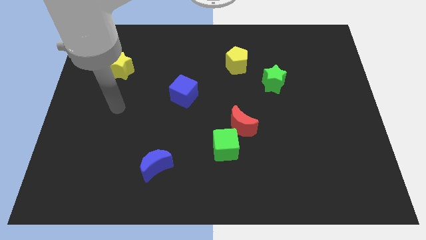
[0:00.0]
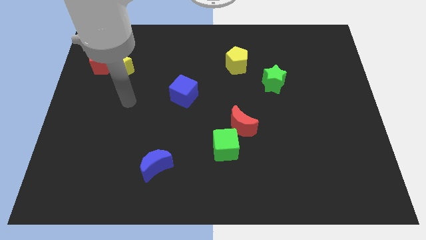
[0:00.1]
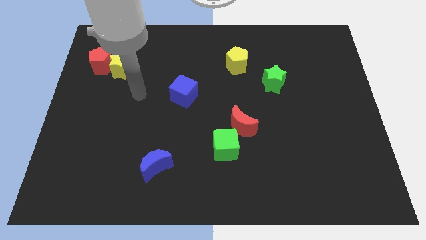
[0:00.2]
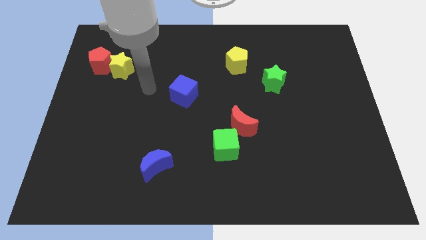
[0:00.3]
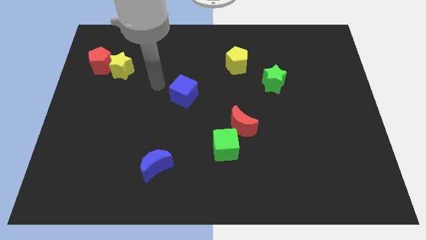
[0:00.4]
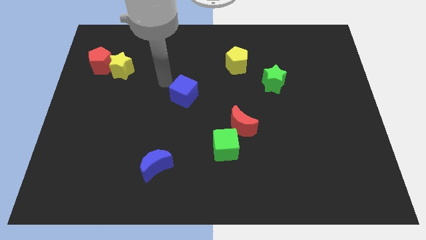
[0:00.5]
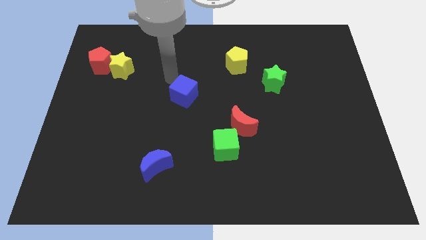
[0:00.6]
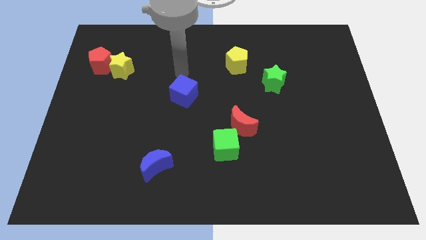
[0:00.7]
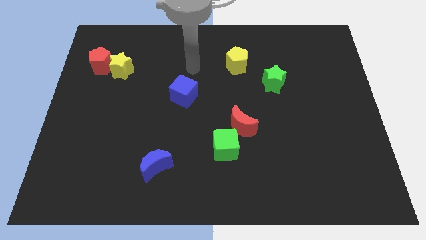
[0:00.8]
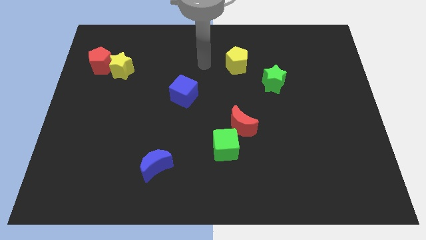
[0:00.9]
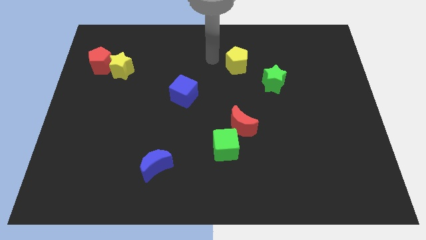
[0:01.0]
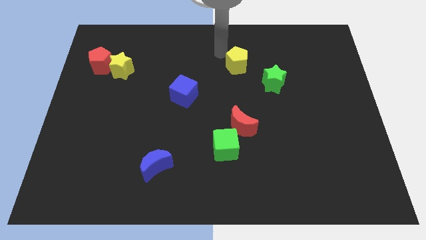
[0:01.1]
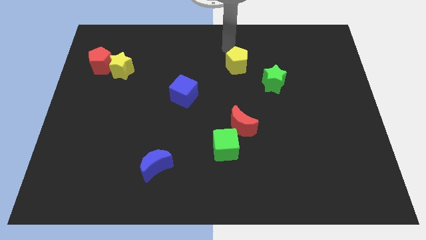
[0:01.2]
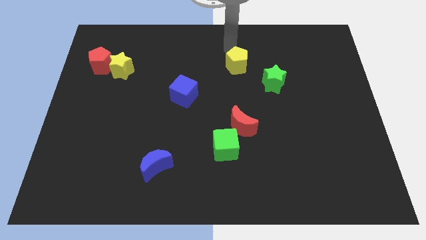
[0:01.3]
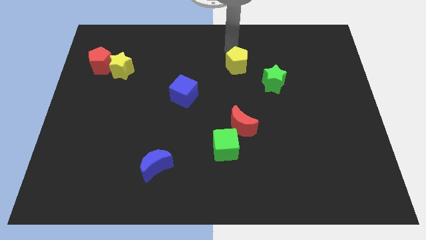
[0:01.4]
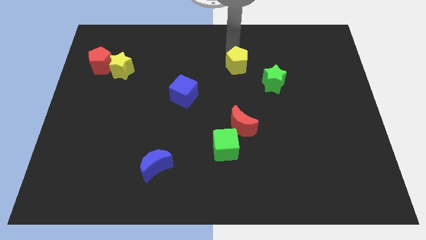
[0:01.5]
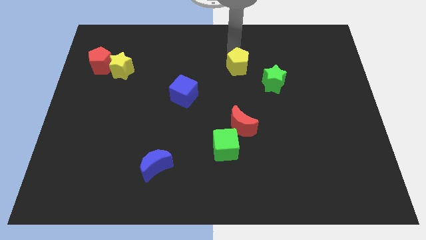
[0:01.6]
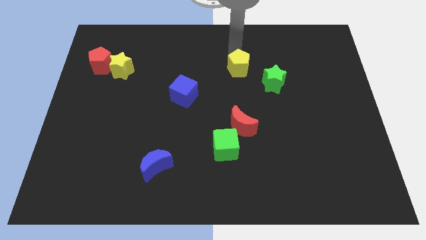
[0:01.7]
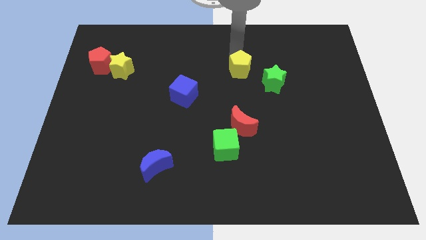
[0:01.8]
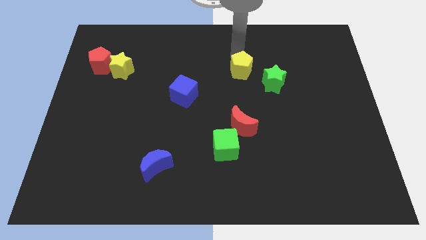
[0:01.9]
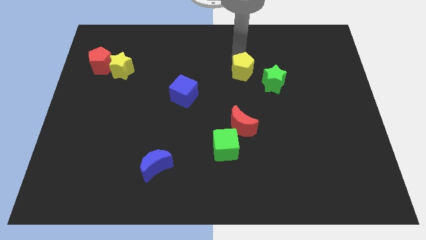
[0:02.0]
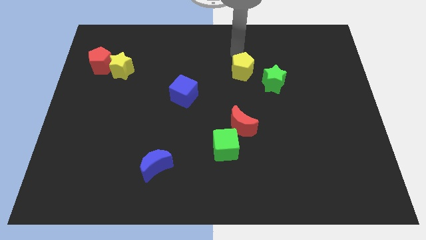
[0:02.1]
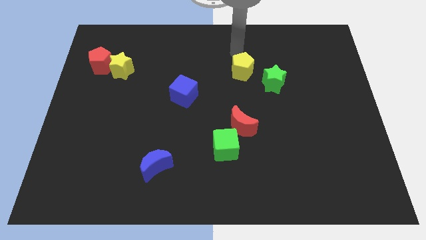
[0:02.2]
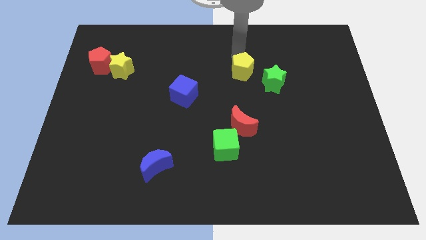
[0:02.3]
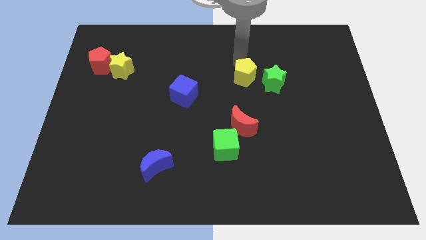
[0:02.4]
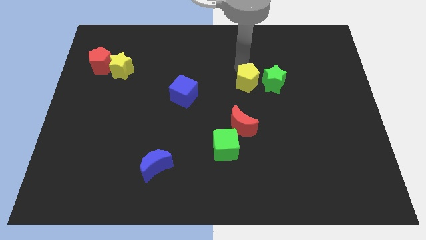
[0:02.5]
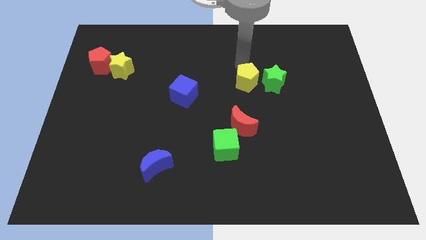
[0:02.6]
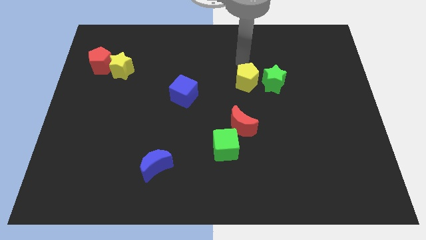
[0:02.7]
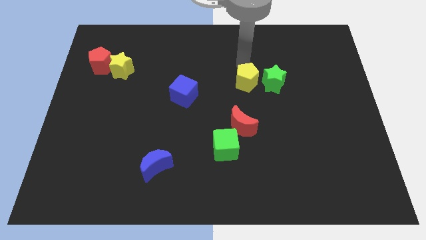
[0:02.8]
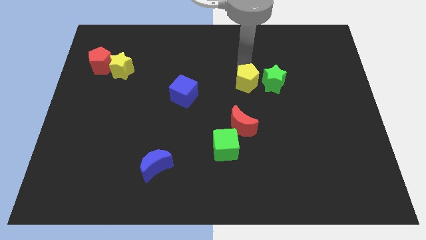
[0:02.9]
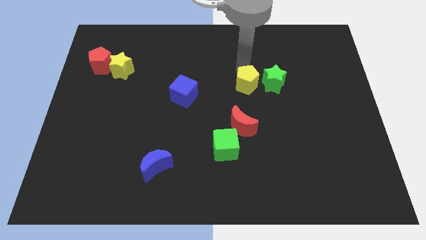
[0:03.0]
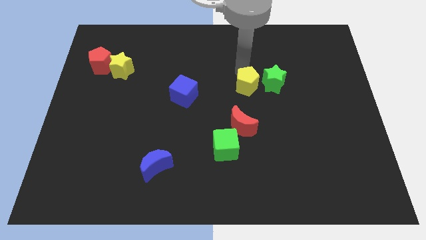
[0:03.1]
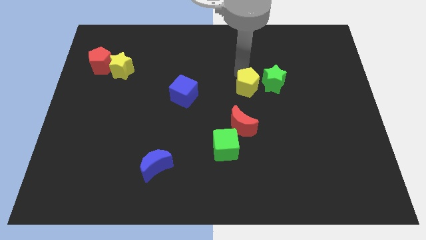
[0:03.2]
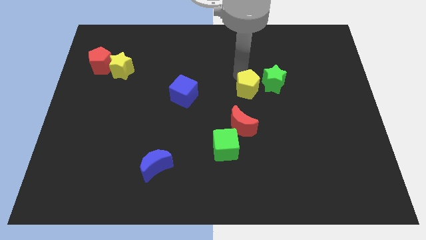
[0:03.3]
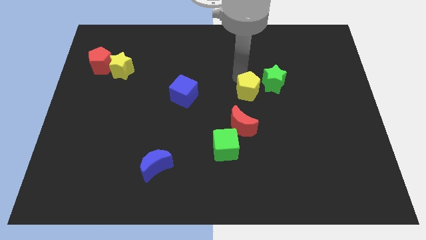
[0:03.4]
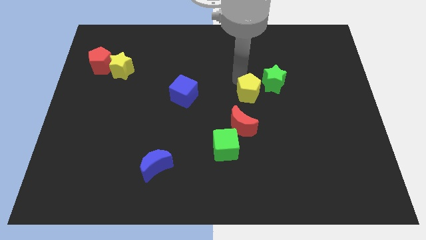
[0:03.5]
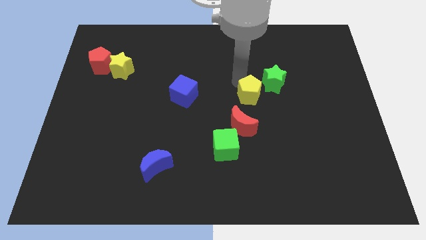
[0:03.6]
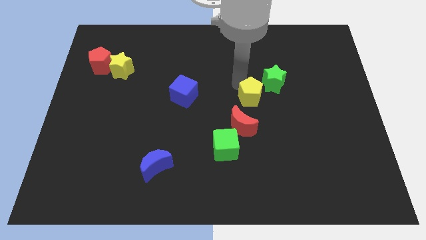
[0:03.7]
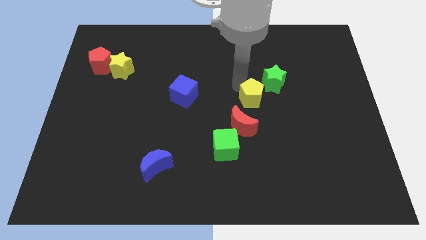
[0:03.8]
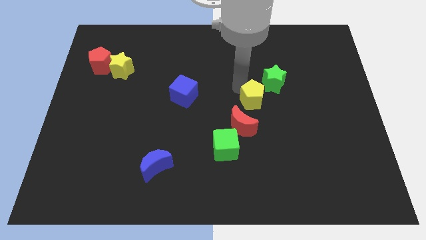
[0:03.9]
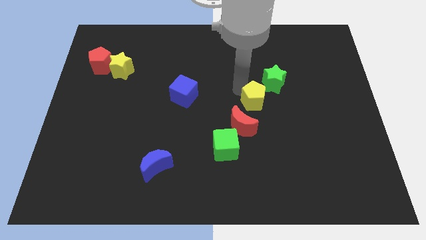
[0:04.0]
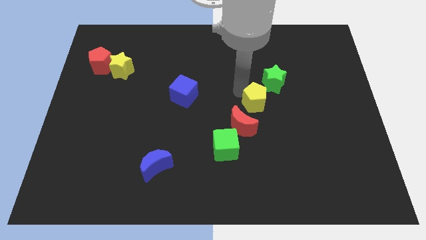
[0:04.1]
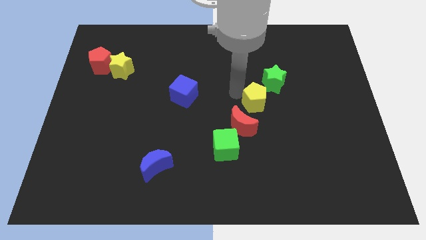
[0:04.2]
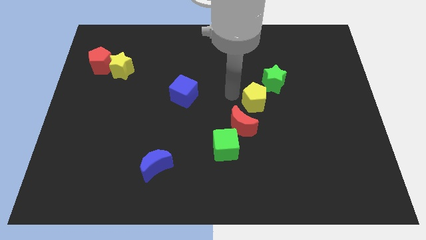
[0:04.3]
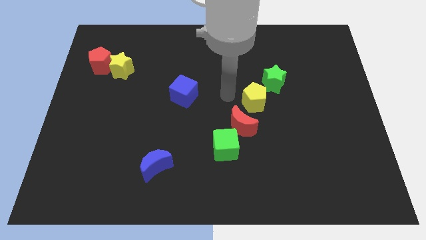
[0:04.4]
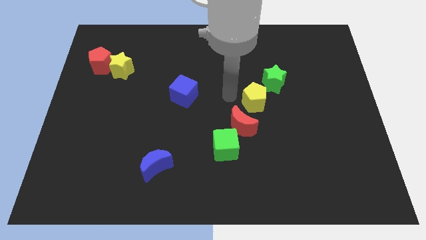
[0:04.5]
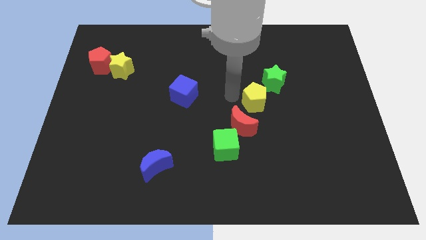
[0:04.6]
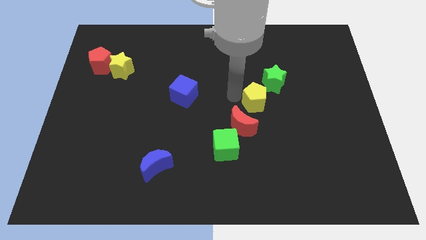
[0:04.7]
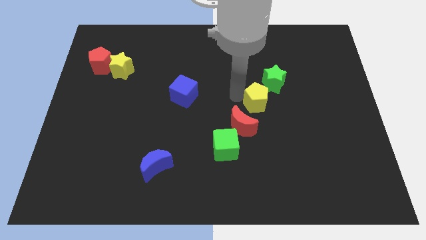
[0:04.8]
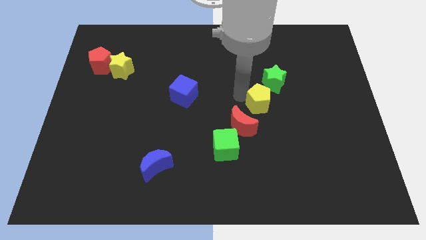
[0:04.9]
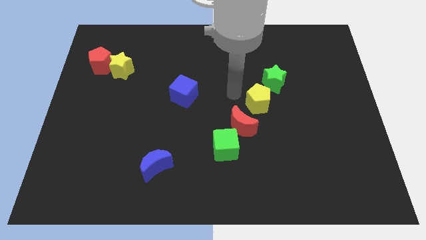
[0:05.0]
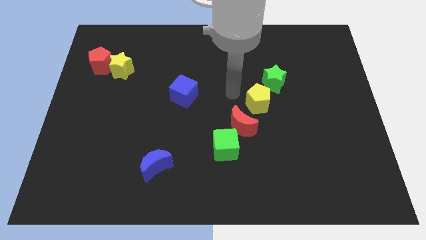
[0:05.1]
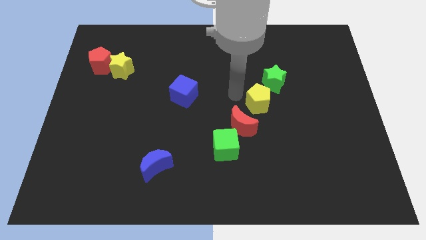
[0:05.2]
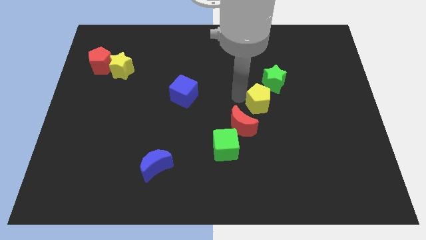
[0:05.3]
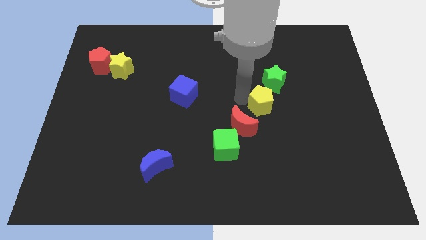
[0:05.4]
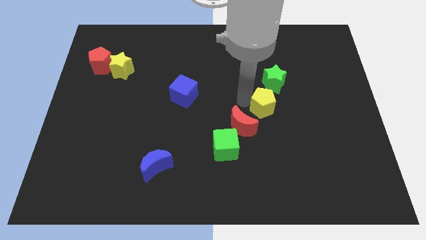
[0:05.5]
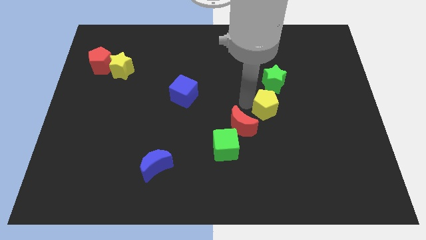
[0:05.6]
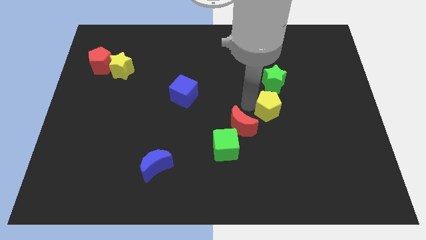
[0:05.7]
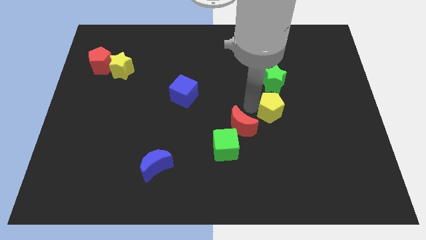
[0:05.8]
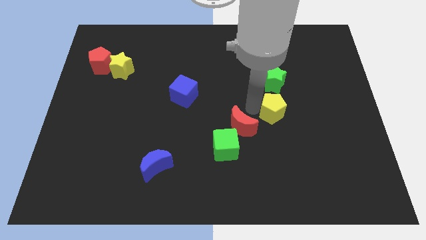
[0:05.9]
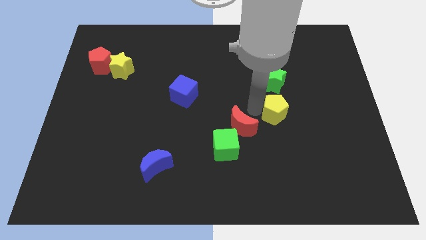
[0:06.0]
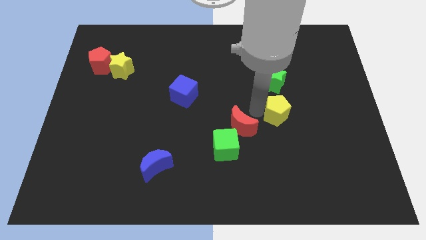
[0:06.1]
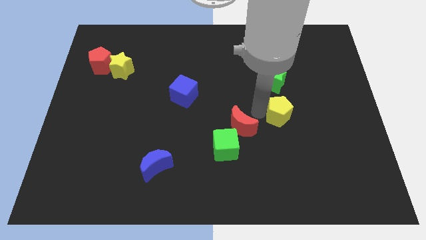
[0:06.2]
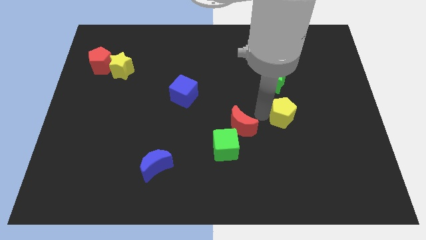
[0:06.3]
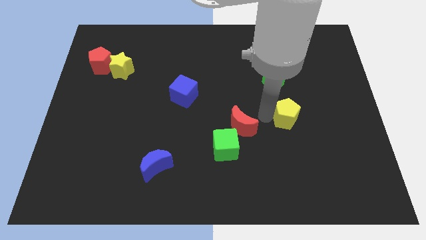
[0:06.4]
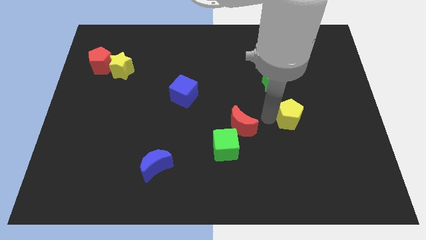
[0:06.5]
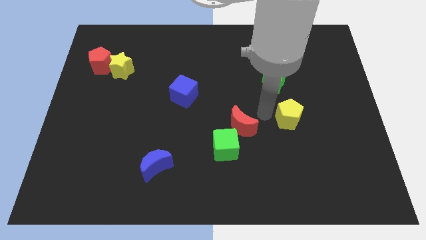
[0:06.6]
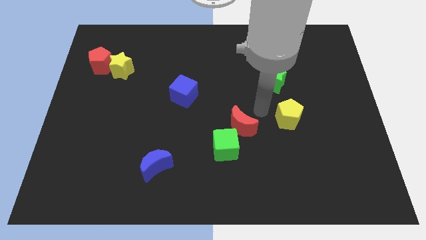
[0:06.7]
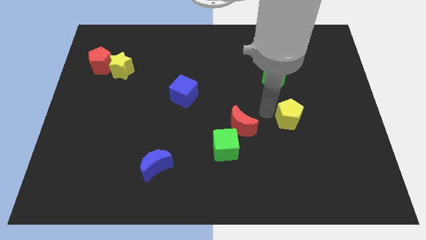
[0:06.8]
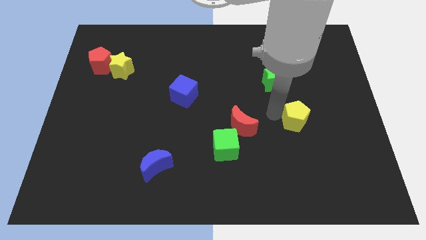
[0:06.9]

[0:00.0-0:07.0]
push the yellow pentagon downwards and to the right

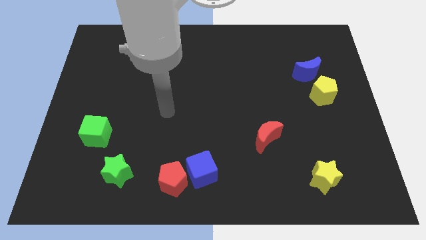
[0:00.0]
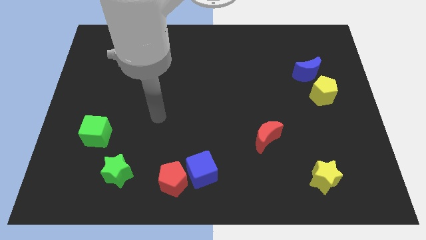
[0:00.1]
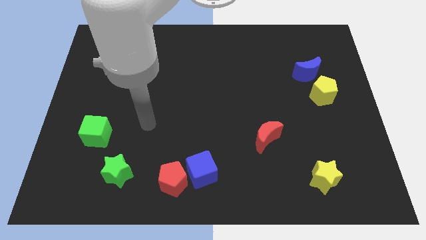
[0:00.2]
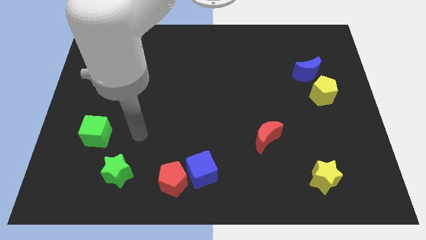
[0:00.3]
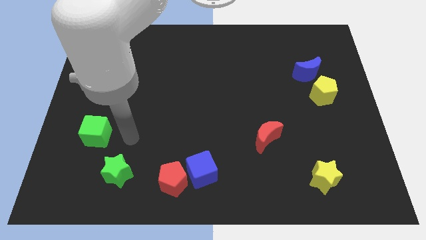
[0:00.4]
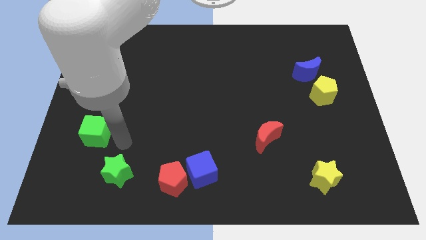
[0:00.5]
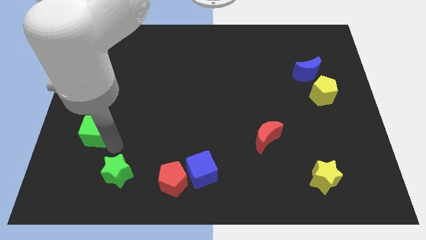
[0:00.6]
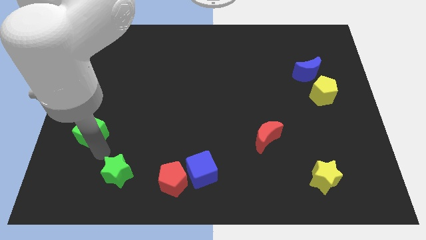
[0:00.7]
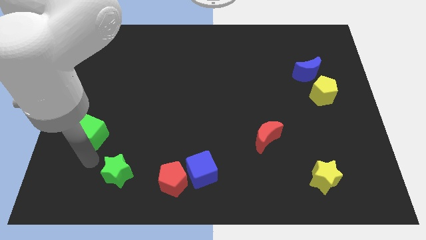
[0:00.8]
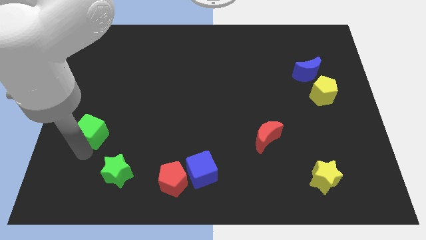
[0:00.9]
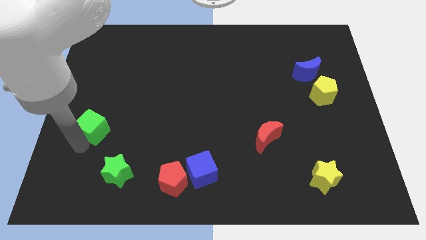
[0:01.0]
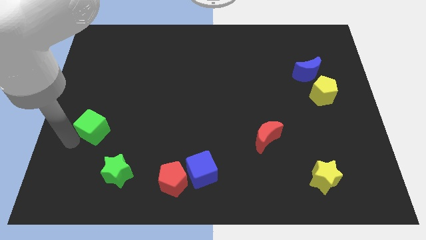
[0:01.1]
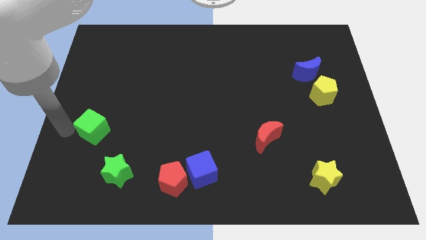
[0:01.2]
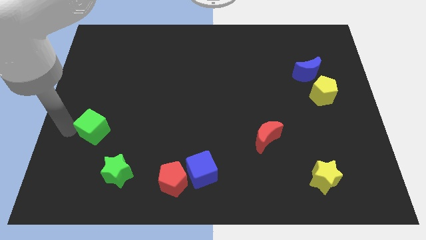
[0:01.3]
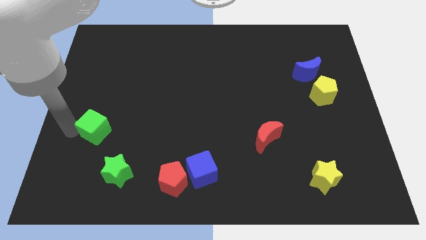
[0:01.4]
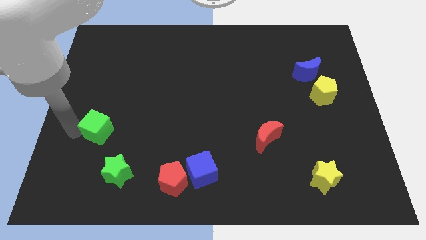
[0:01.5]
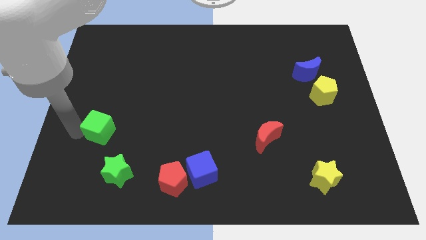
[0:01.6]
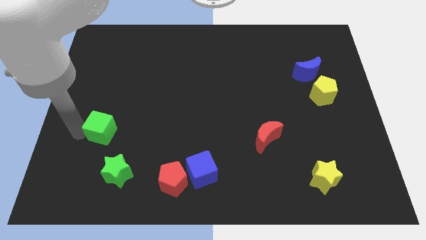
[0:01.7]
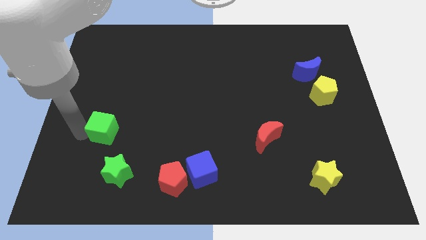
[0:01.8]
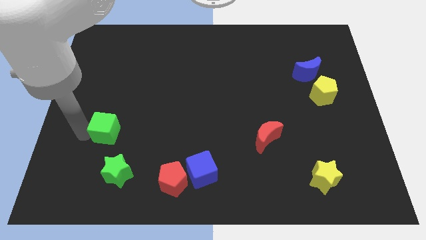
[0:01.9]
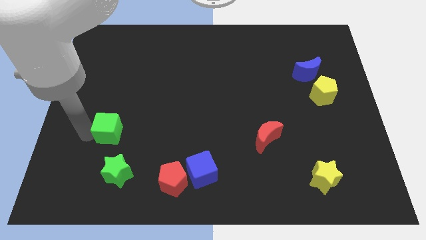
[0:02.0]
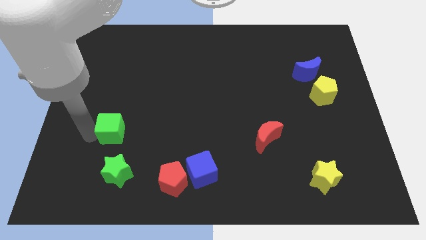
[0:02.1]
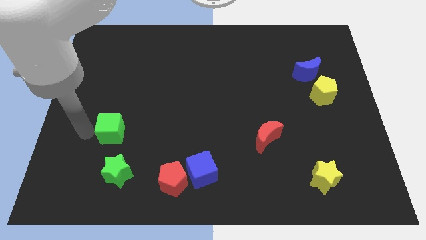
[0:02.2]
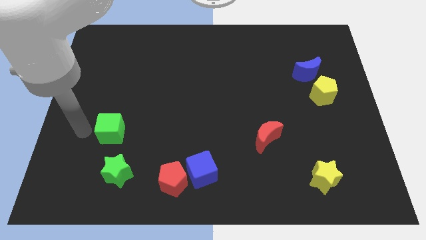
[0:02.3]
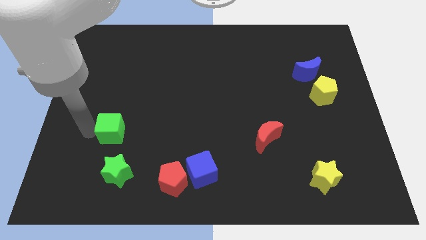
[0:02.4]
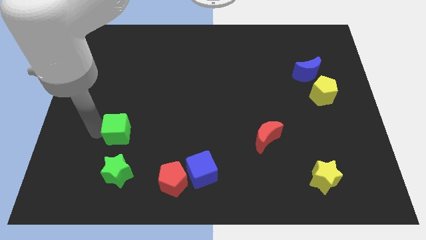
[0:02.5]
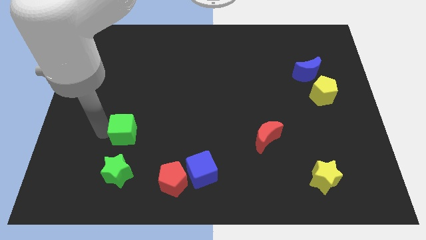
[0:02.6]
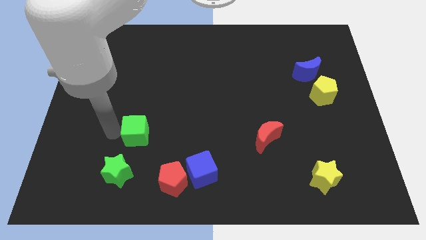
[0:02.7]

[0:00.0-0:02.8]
move the green cube a little right
